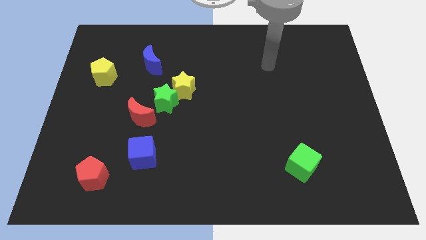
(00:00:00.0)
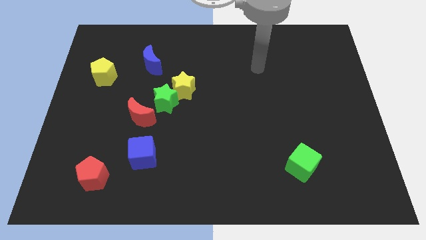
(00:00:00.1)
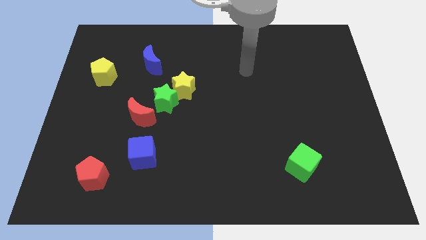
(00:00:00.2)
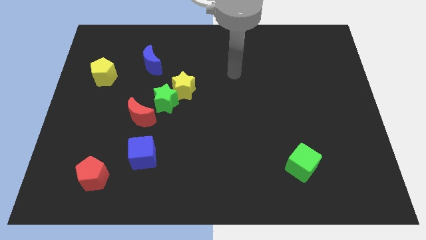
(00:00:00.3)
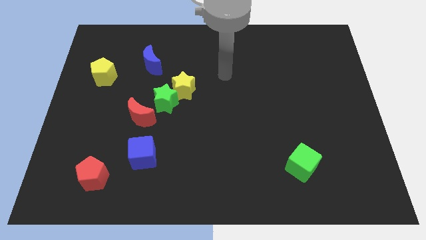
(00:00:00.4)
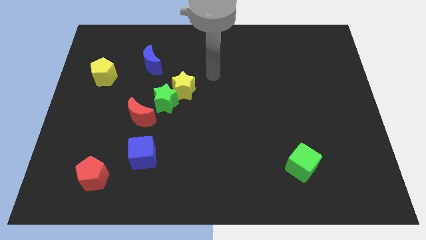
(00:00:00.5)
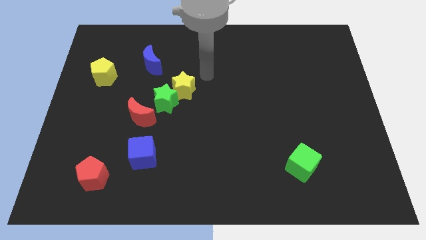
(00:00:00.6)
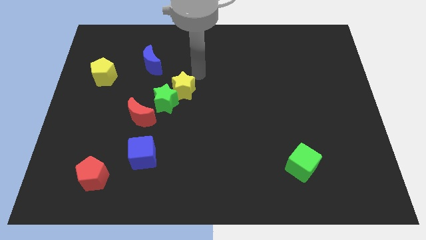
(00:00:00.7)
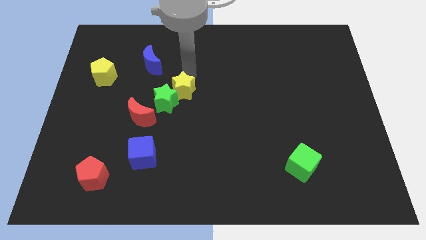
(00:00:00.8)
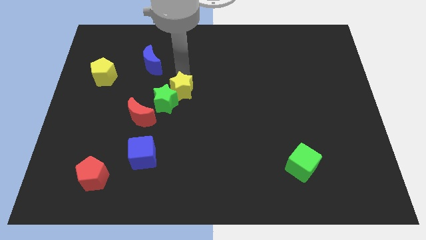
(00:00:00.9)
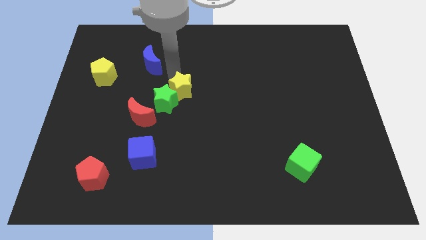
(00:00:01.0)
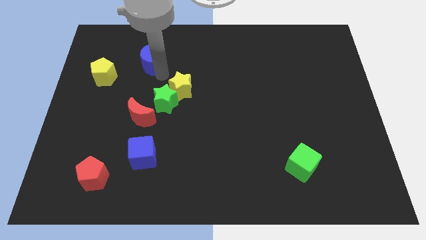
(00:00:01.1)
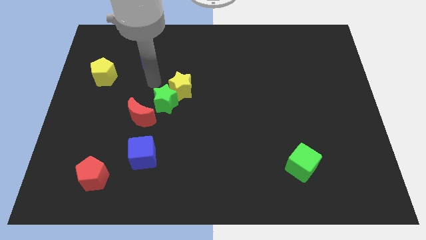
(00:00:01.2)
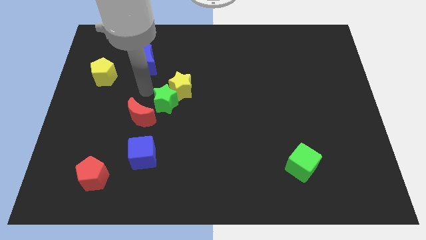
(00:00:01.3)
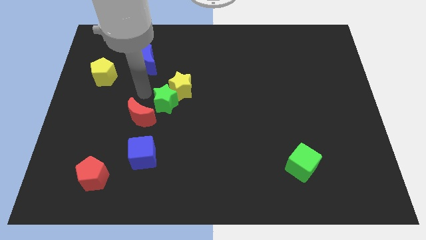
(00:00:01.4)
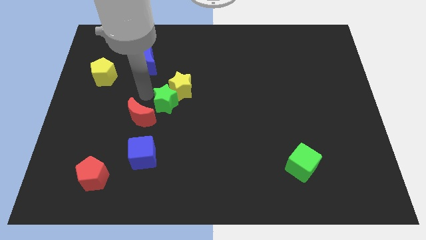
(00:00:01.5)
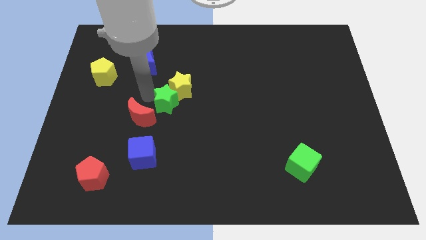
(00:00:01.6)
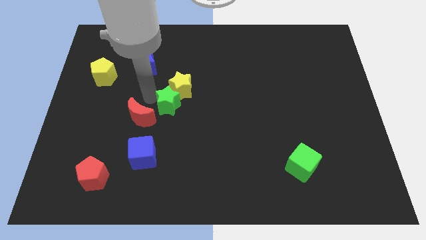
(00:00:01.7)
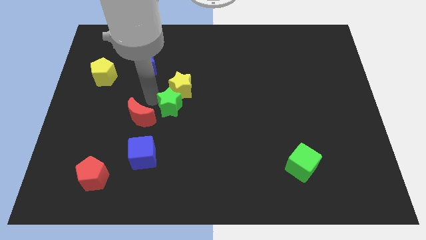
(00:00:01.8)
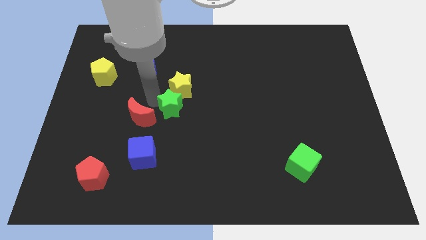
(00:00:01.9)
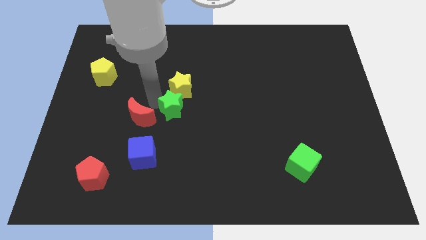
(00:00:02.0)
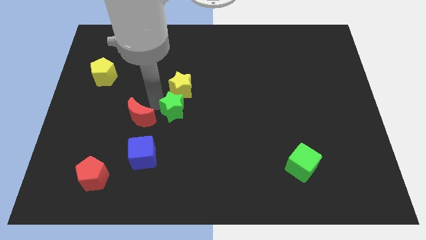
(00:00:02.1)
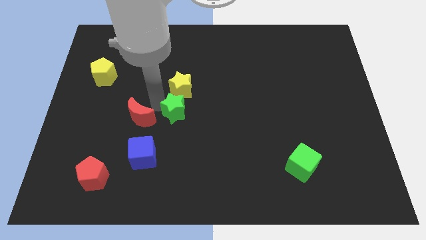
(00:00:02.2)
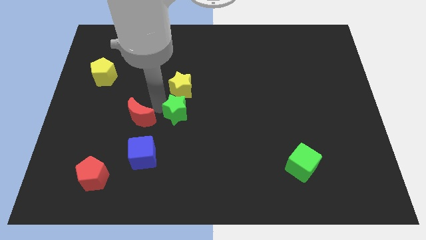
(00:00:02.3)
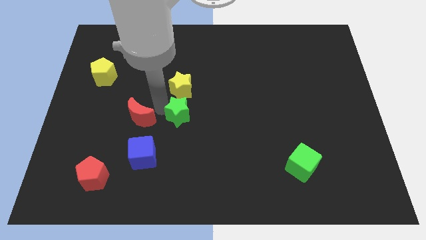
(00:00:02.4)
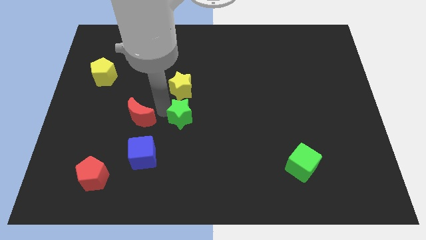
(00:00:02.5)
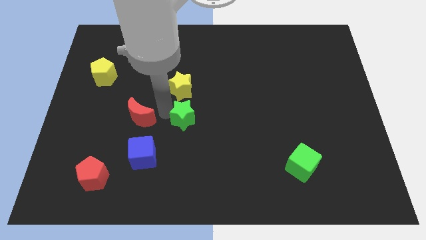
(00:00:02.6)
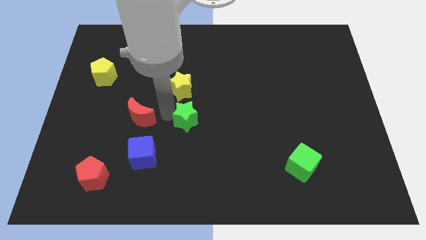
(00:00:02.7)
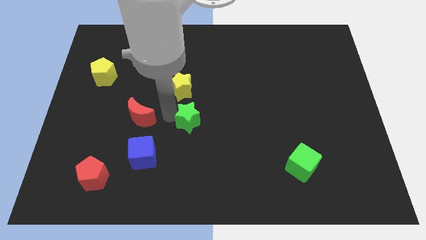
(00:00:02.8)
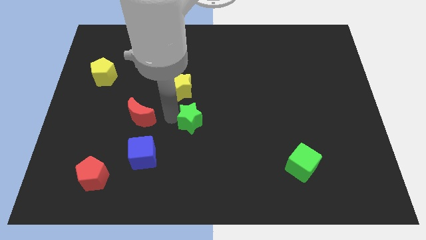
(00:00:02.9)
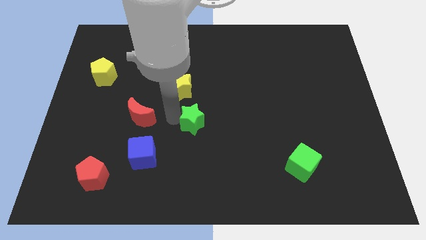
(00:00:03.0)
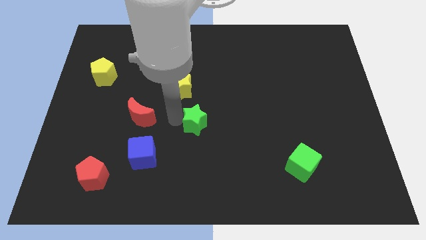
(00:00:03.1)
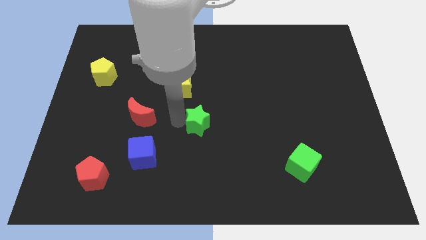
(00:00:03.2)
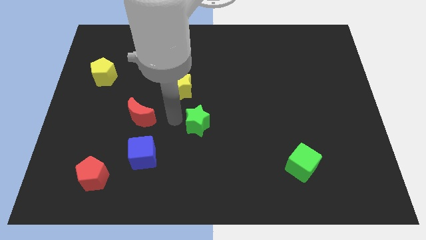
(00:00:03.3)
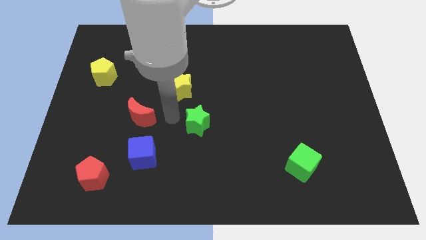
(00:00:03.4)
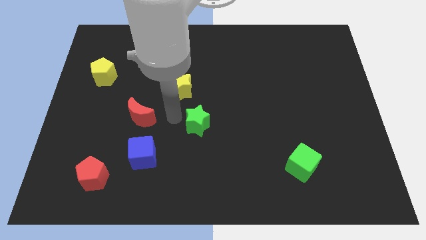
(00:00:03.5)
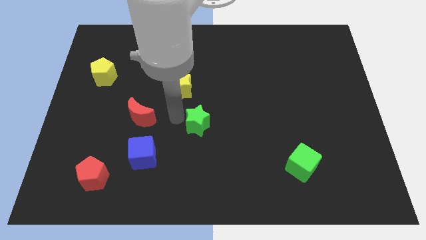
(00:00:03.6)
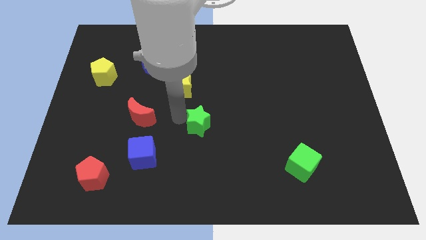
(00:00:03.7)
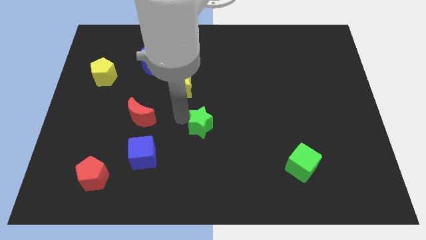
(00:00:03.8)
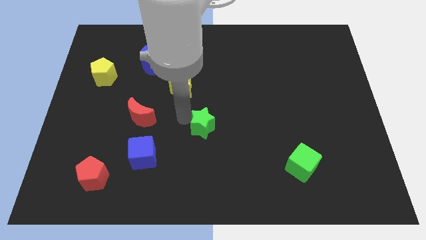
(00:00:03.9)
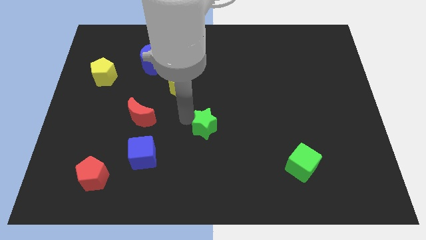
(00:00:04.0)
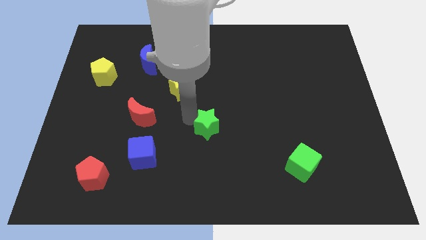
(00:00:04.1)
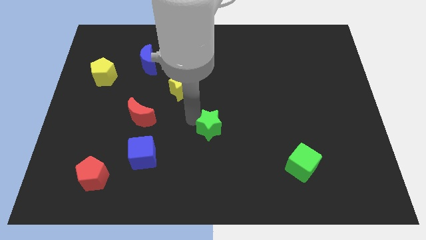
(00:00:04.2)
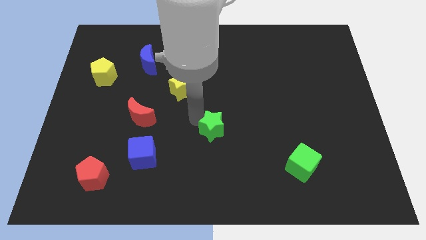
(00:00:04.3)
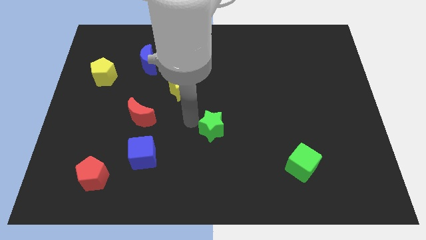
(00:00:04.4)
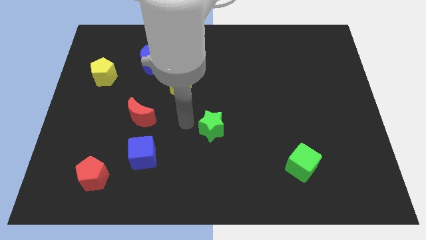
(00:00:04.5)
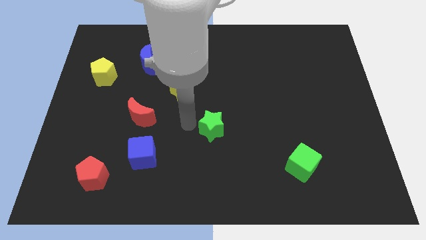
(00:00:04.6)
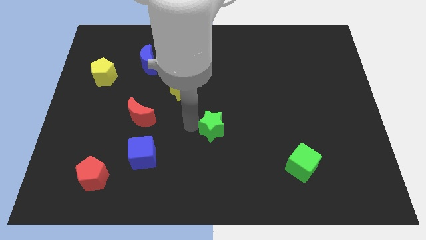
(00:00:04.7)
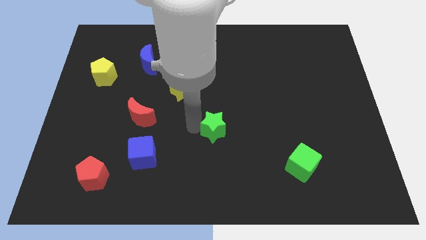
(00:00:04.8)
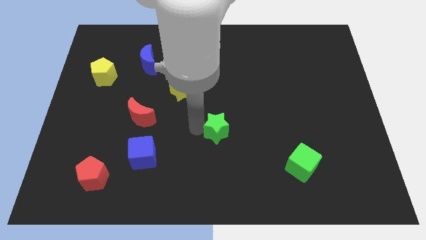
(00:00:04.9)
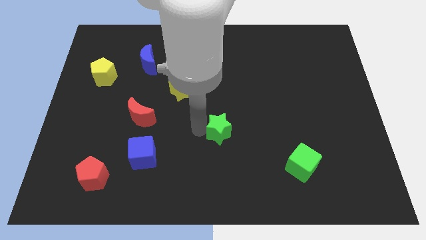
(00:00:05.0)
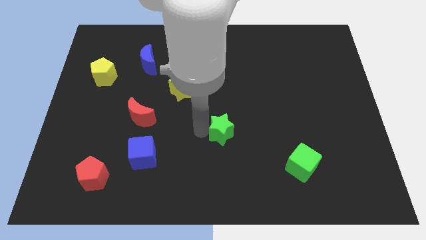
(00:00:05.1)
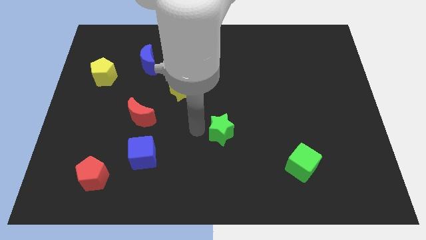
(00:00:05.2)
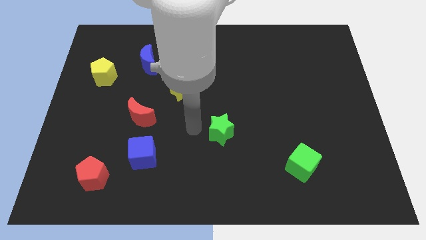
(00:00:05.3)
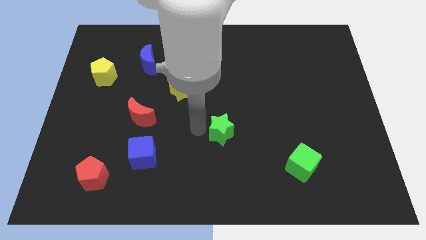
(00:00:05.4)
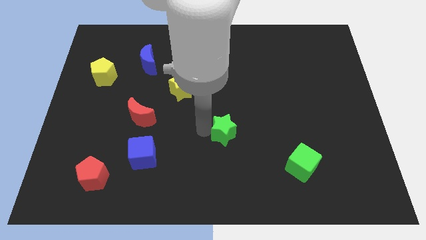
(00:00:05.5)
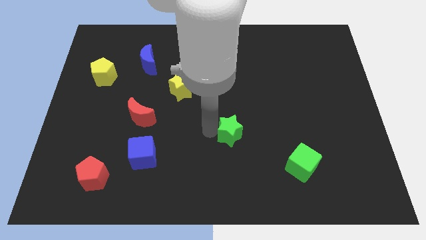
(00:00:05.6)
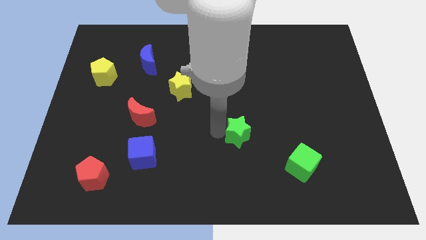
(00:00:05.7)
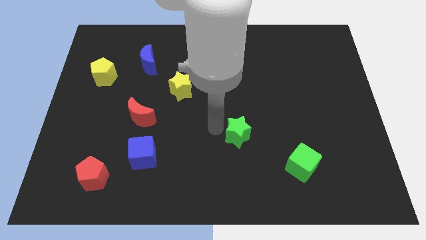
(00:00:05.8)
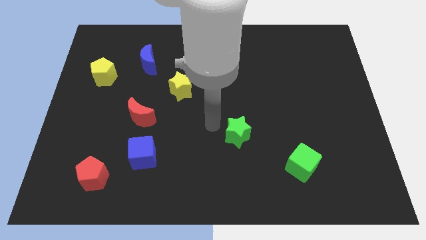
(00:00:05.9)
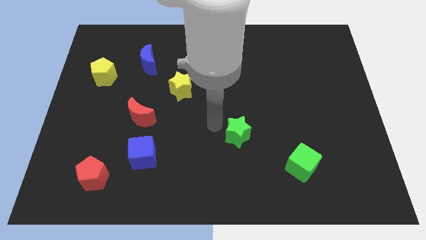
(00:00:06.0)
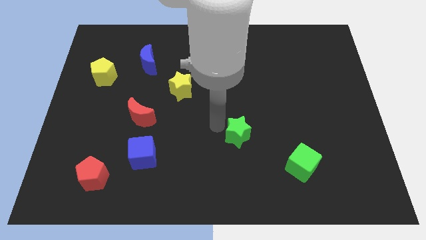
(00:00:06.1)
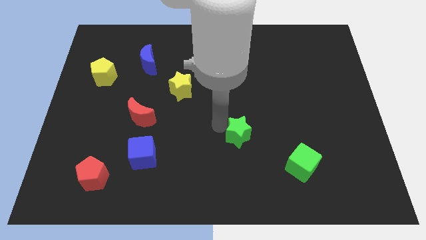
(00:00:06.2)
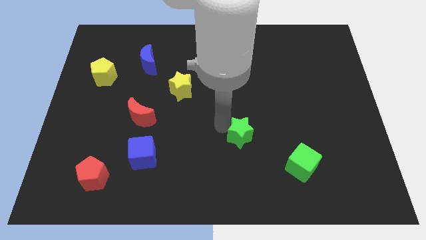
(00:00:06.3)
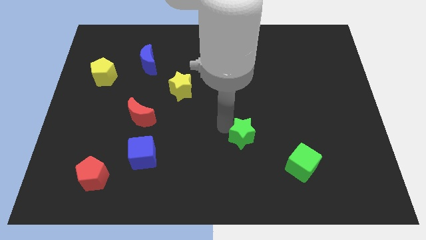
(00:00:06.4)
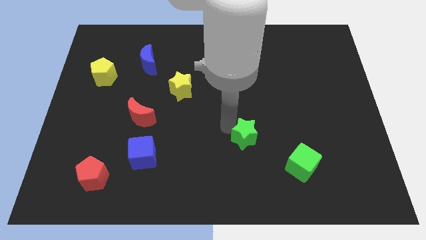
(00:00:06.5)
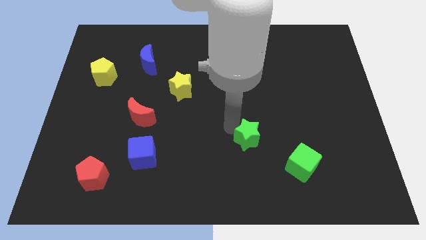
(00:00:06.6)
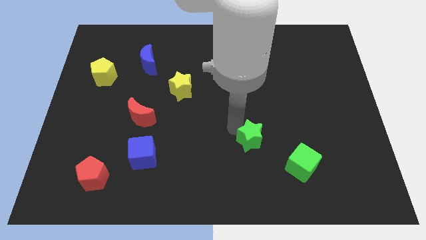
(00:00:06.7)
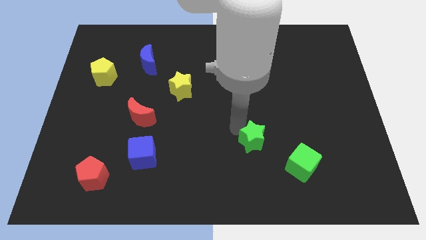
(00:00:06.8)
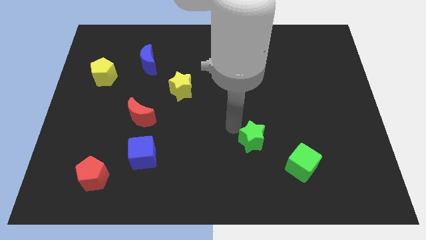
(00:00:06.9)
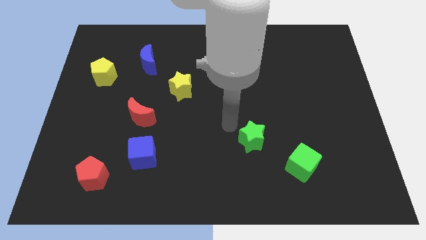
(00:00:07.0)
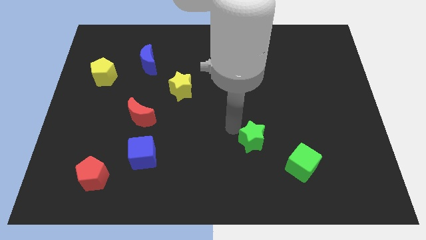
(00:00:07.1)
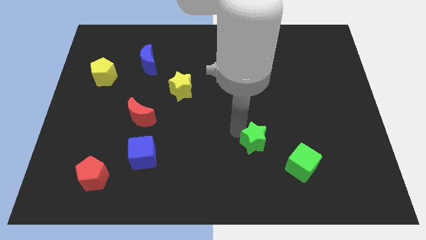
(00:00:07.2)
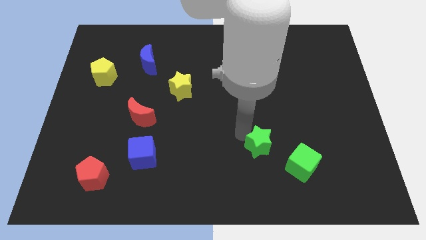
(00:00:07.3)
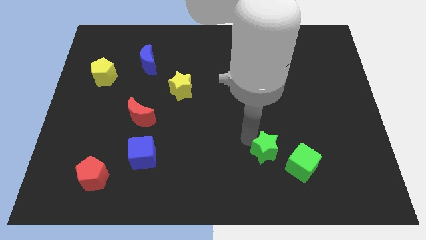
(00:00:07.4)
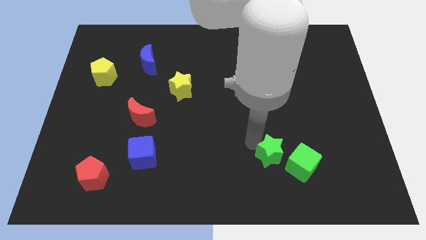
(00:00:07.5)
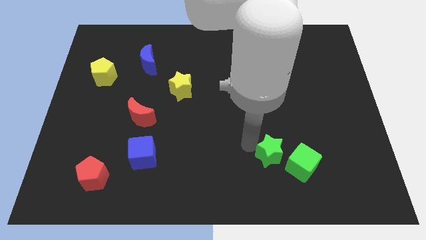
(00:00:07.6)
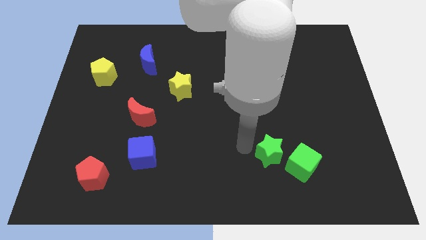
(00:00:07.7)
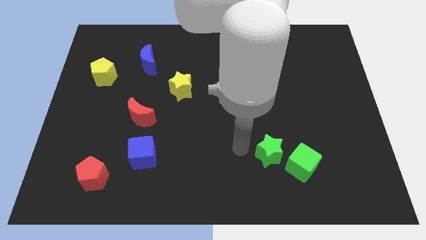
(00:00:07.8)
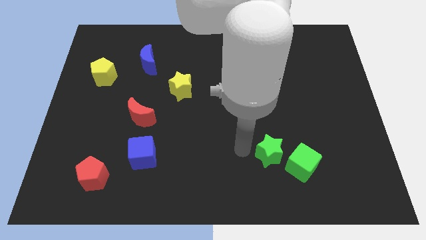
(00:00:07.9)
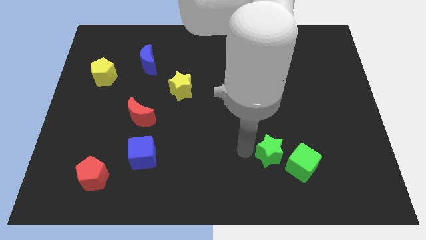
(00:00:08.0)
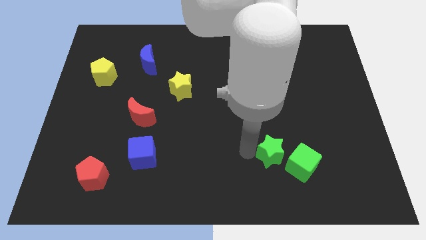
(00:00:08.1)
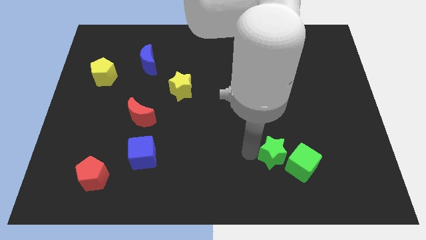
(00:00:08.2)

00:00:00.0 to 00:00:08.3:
slide the green star next to the green cube
